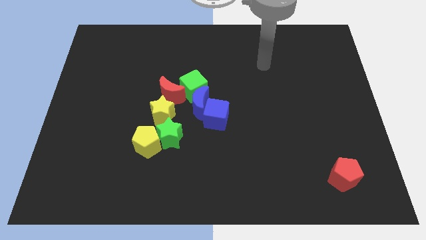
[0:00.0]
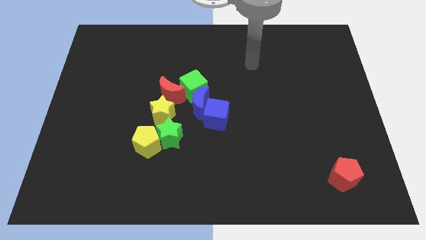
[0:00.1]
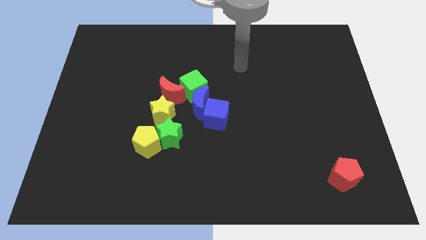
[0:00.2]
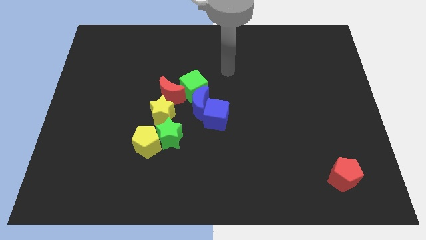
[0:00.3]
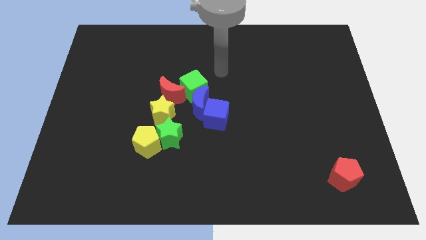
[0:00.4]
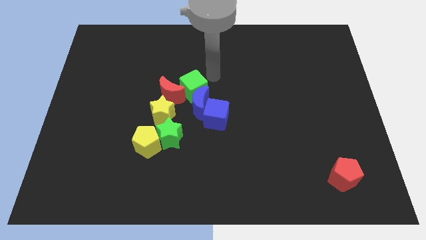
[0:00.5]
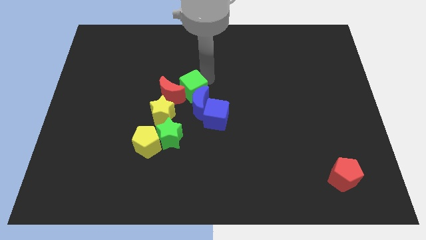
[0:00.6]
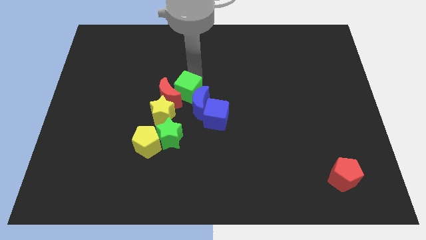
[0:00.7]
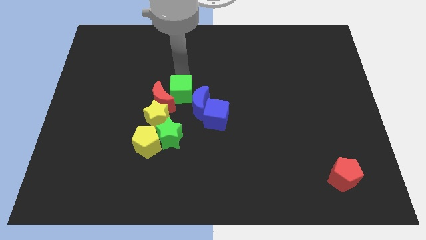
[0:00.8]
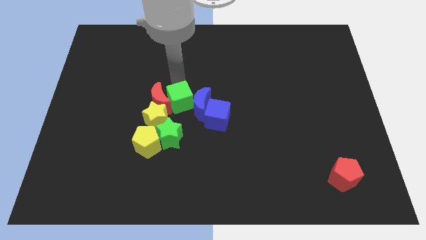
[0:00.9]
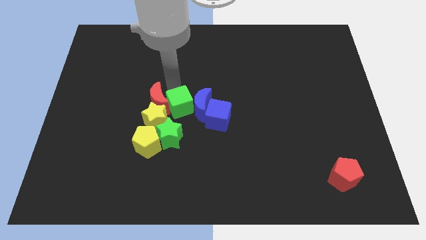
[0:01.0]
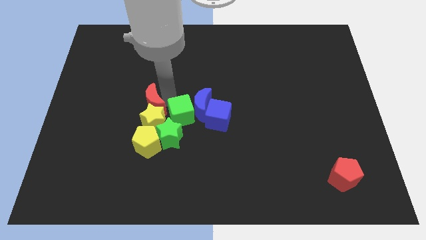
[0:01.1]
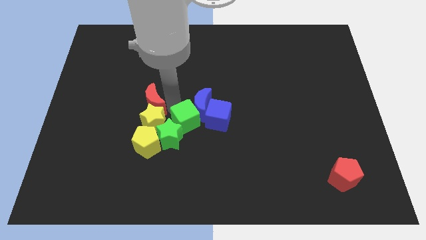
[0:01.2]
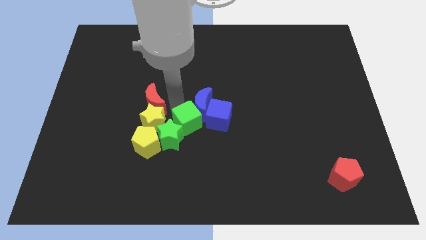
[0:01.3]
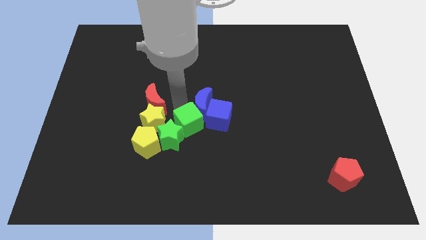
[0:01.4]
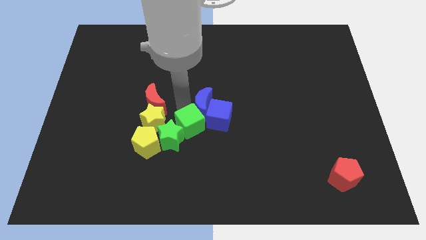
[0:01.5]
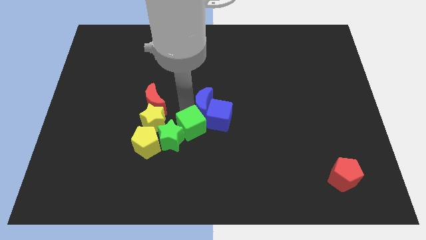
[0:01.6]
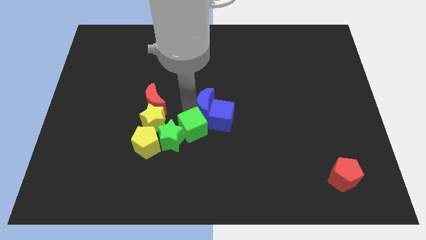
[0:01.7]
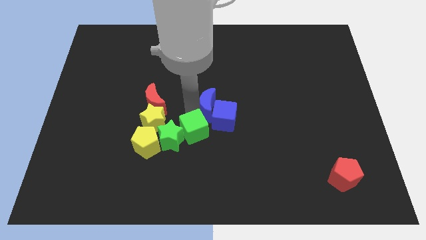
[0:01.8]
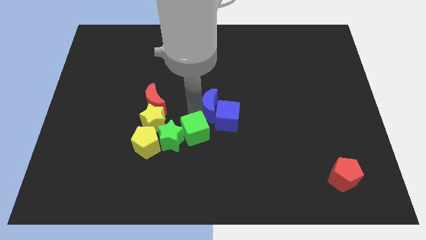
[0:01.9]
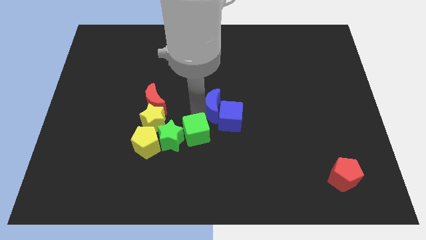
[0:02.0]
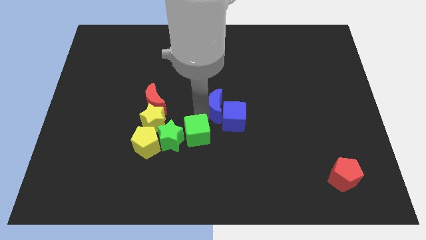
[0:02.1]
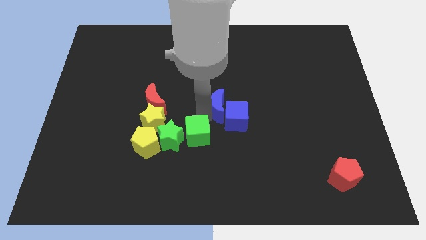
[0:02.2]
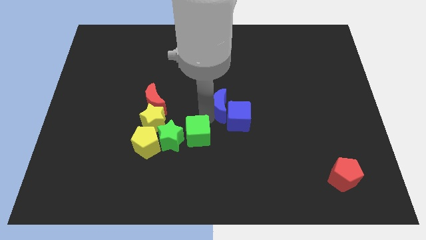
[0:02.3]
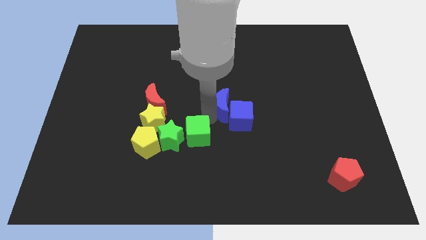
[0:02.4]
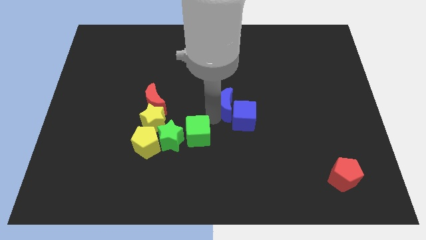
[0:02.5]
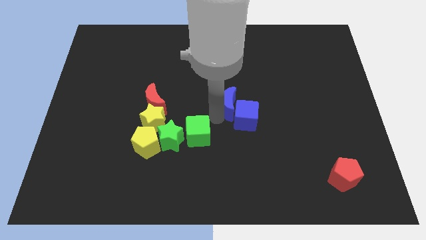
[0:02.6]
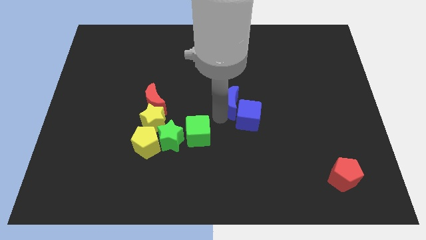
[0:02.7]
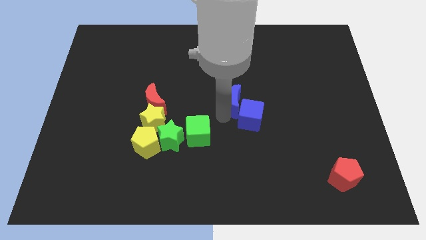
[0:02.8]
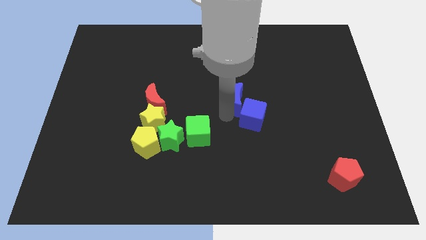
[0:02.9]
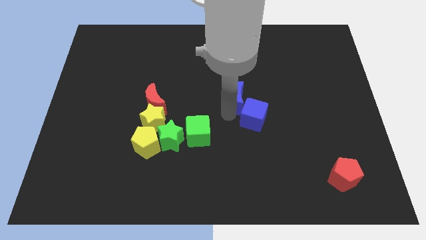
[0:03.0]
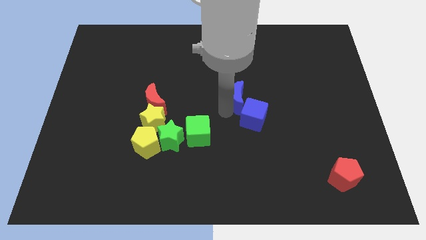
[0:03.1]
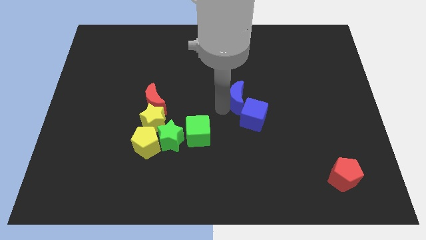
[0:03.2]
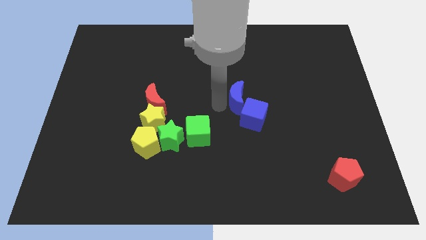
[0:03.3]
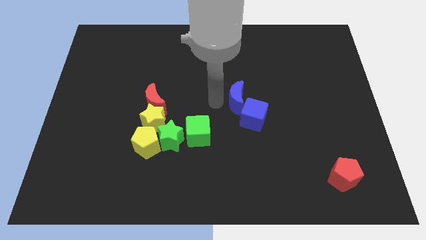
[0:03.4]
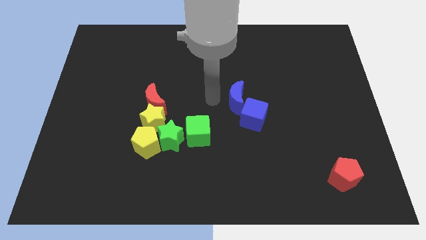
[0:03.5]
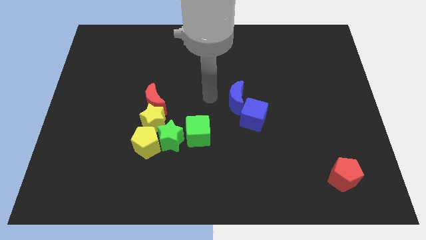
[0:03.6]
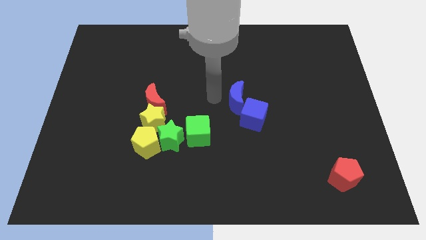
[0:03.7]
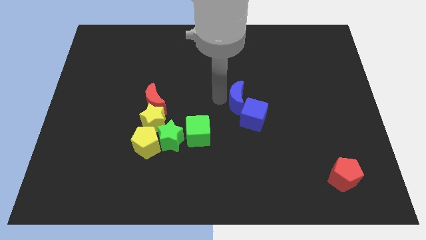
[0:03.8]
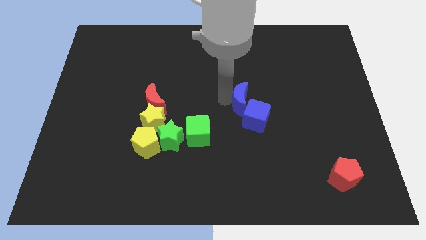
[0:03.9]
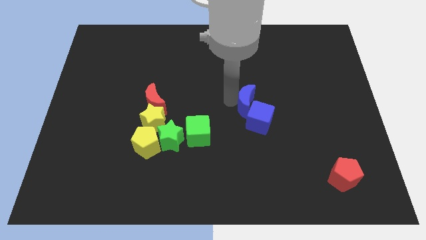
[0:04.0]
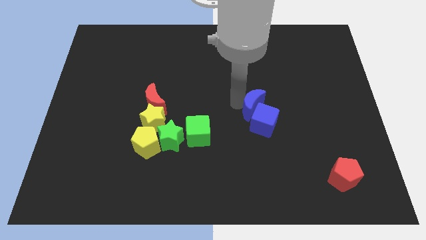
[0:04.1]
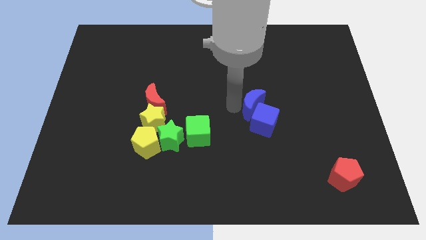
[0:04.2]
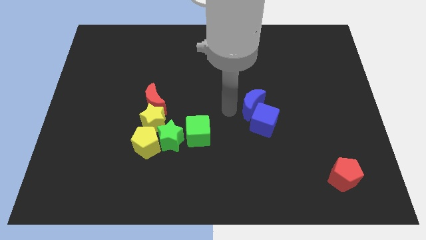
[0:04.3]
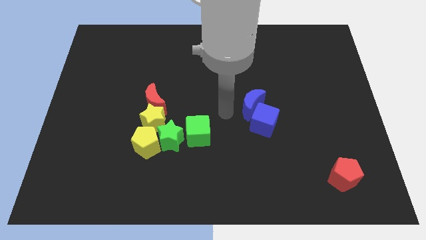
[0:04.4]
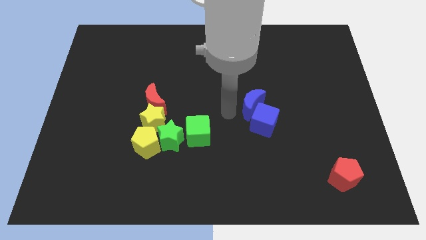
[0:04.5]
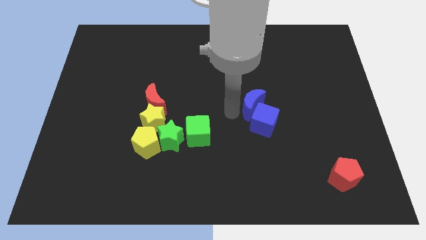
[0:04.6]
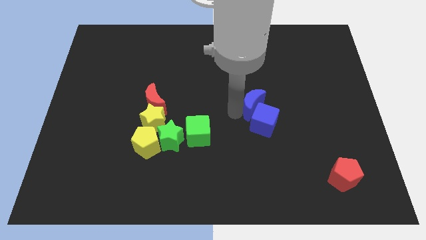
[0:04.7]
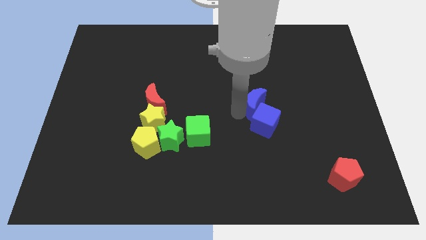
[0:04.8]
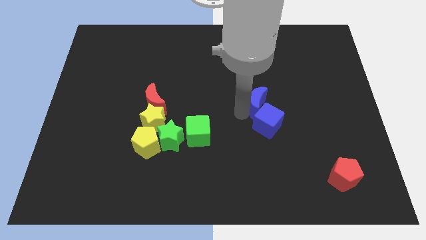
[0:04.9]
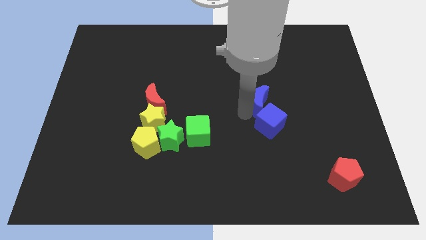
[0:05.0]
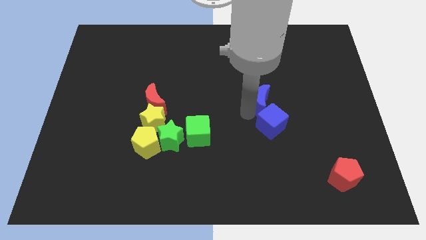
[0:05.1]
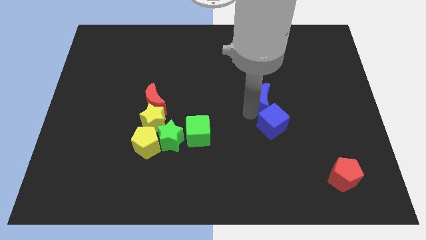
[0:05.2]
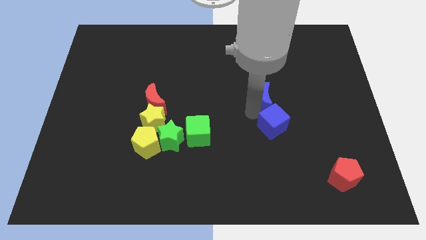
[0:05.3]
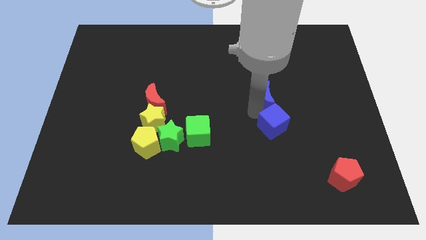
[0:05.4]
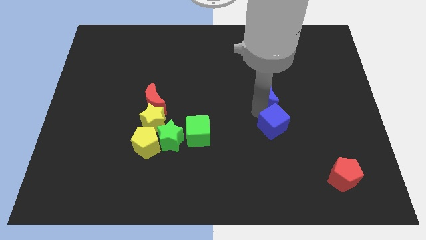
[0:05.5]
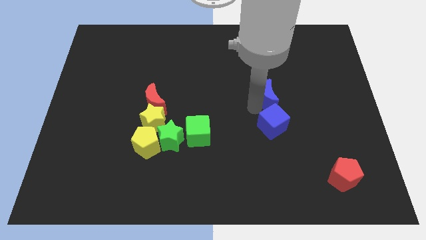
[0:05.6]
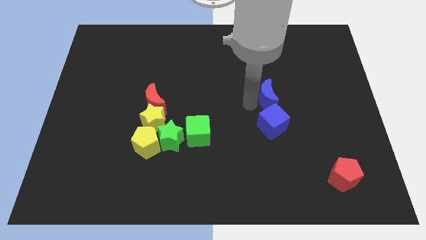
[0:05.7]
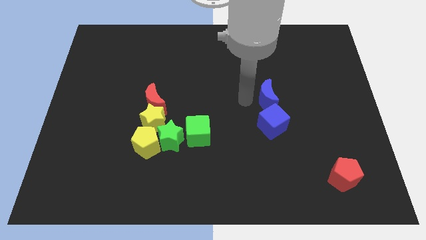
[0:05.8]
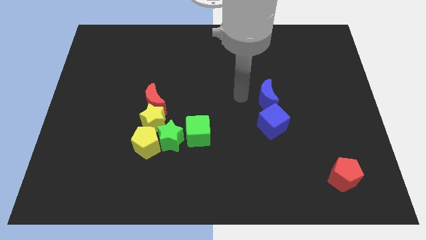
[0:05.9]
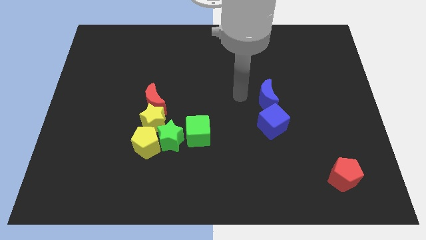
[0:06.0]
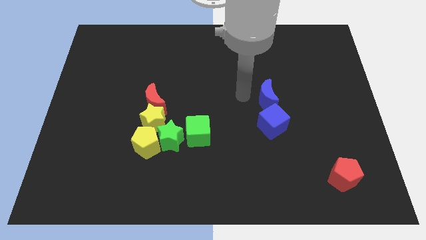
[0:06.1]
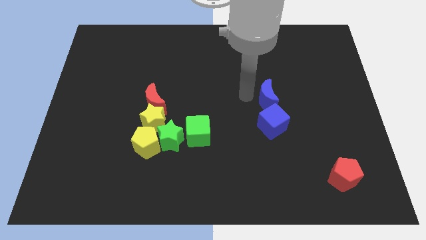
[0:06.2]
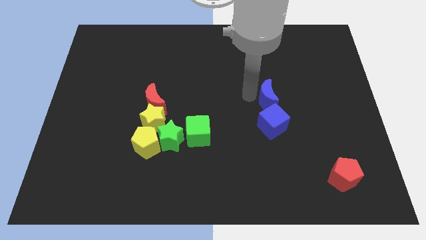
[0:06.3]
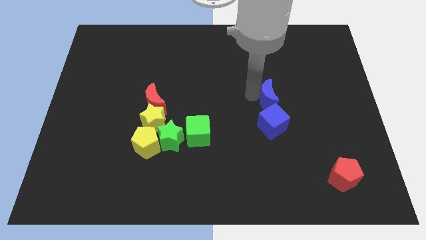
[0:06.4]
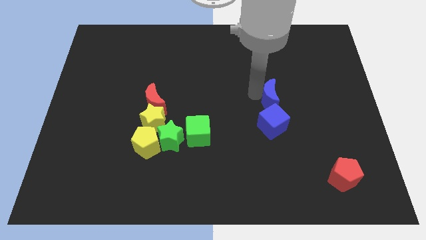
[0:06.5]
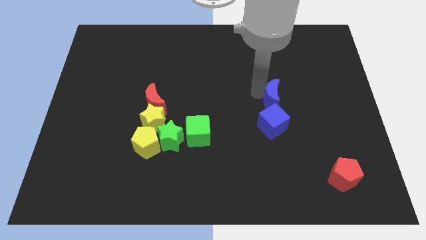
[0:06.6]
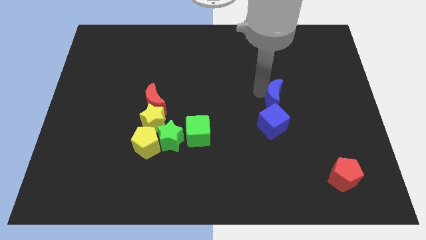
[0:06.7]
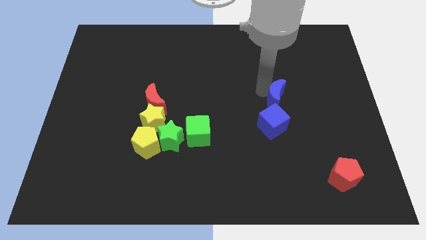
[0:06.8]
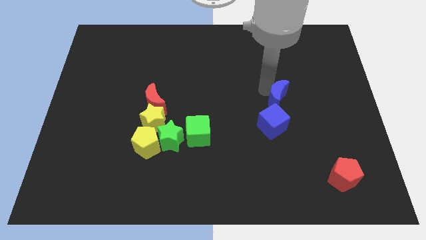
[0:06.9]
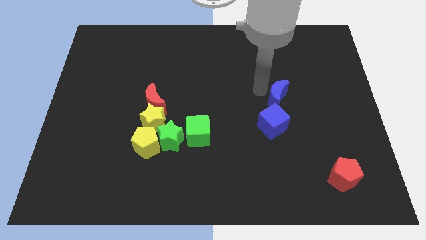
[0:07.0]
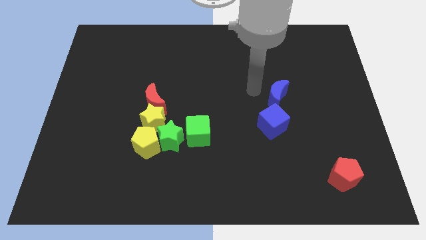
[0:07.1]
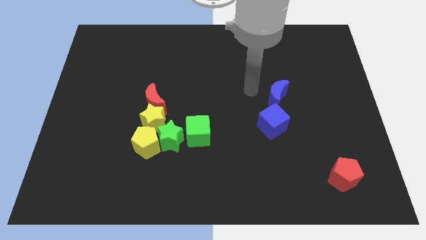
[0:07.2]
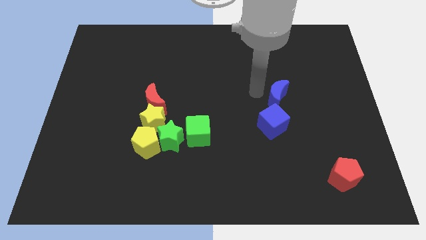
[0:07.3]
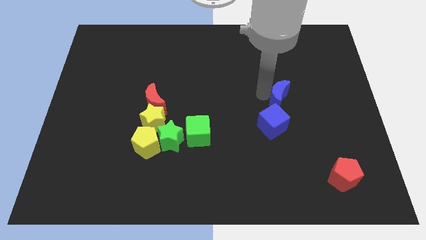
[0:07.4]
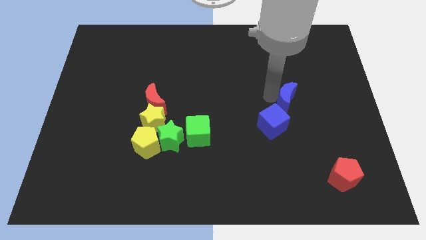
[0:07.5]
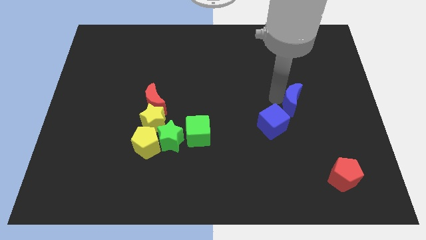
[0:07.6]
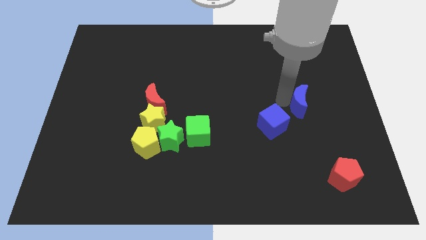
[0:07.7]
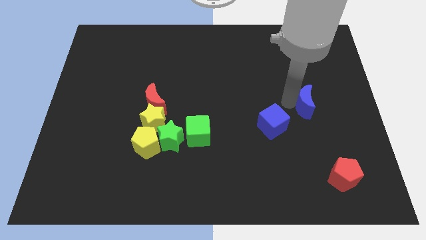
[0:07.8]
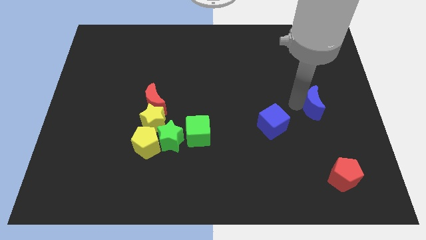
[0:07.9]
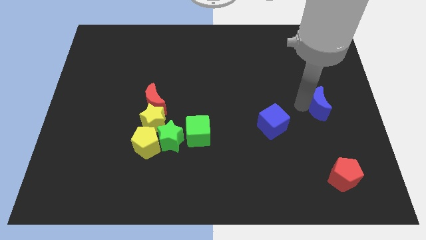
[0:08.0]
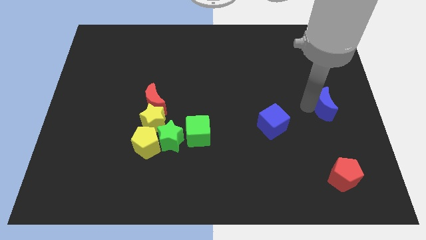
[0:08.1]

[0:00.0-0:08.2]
move the blue moon to the center right
